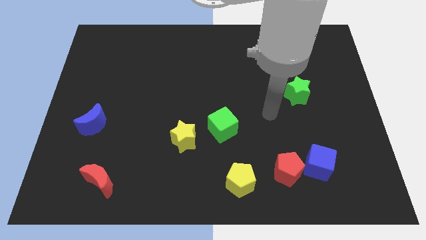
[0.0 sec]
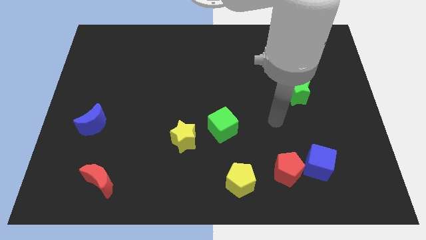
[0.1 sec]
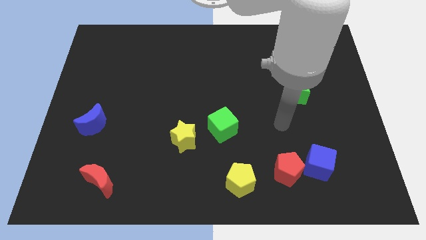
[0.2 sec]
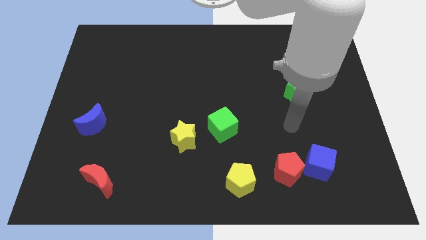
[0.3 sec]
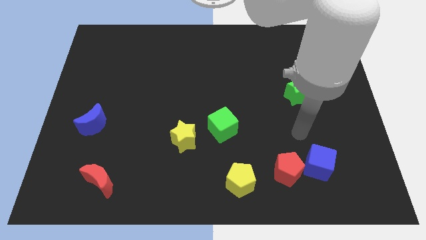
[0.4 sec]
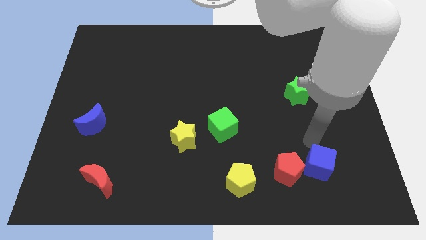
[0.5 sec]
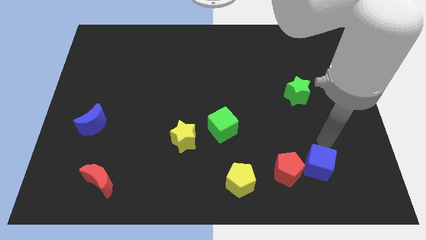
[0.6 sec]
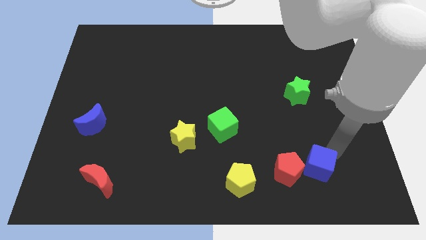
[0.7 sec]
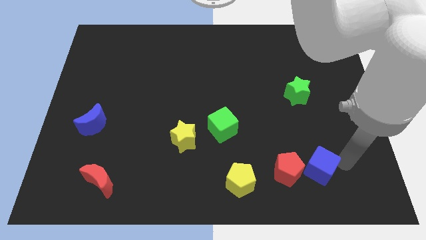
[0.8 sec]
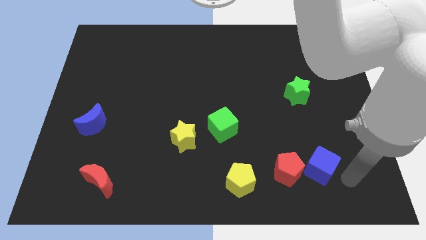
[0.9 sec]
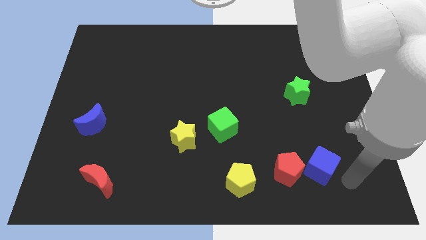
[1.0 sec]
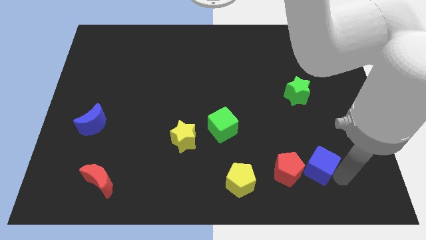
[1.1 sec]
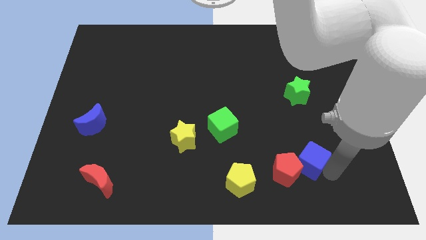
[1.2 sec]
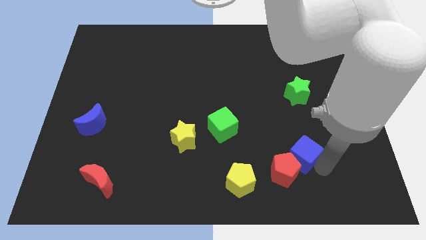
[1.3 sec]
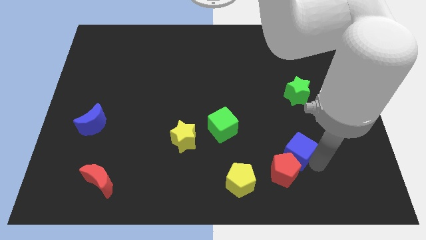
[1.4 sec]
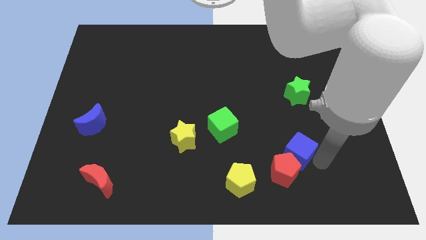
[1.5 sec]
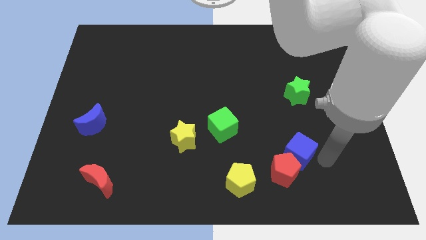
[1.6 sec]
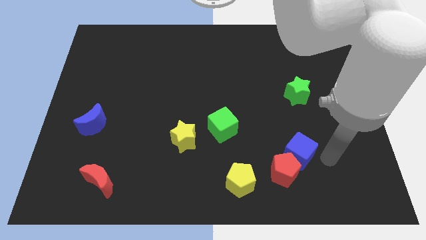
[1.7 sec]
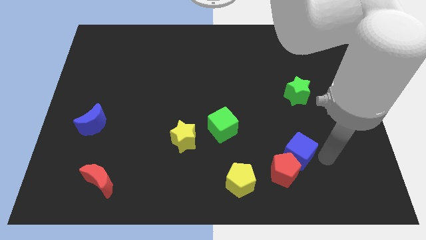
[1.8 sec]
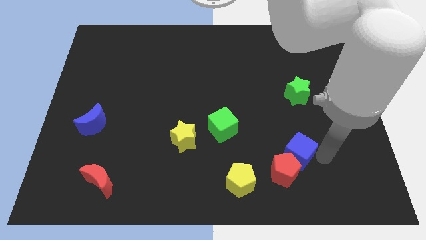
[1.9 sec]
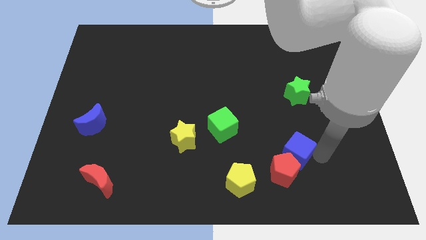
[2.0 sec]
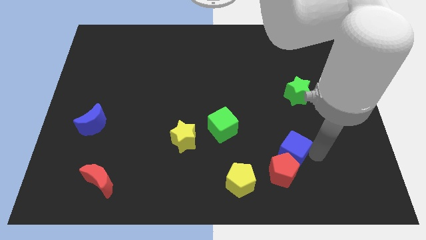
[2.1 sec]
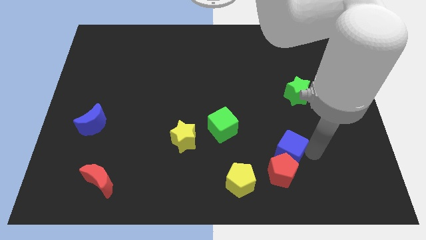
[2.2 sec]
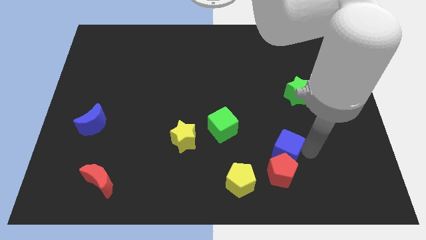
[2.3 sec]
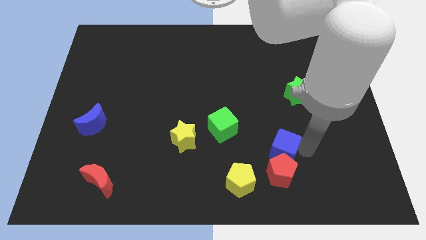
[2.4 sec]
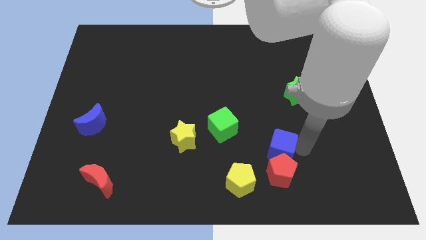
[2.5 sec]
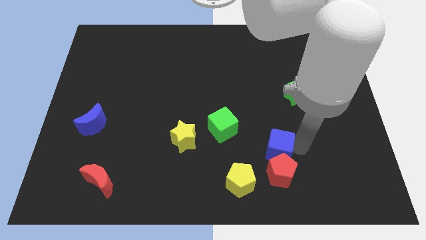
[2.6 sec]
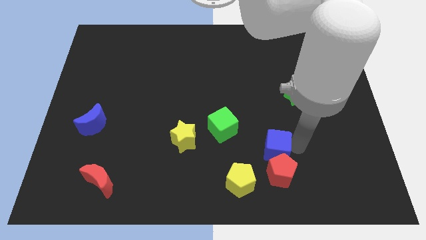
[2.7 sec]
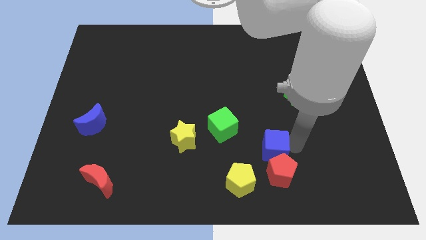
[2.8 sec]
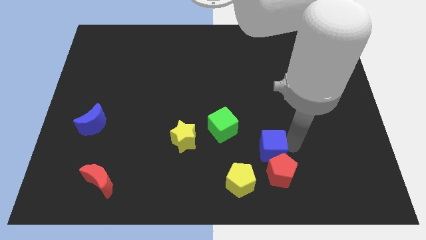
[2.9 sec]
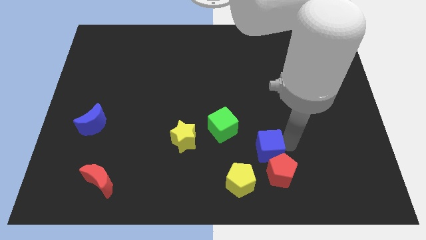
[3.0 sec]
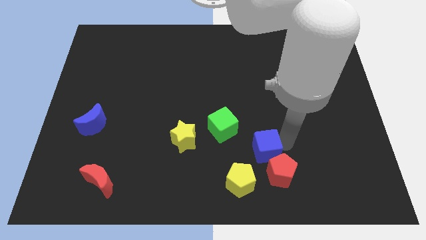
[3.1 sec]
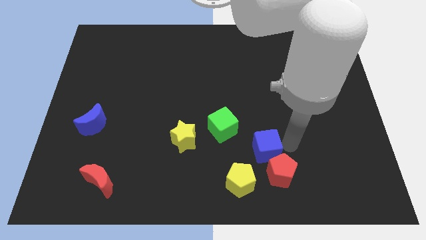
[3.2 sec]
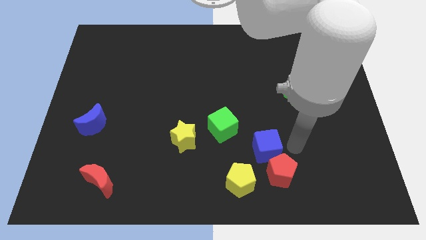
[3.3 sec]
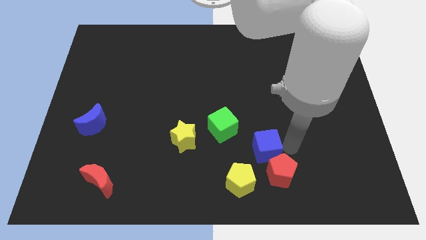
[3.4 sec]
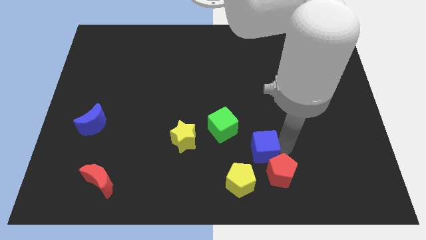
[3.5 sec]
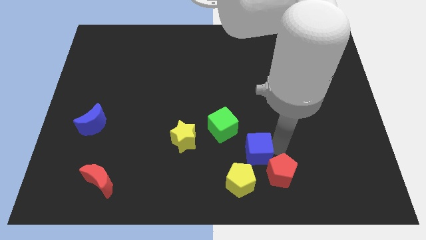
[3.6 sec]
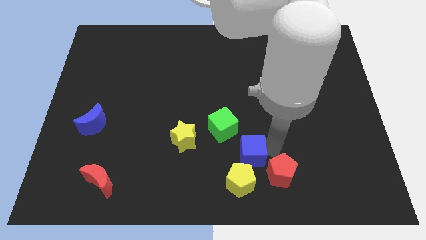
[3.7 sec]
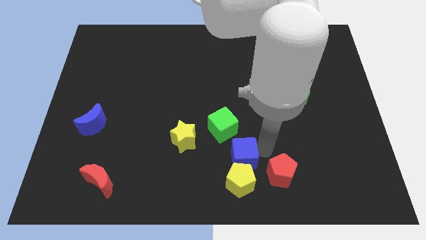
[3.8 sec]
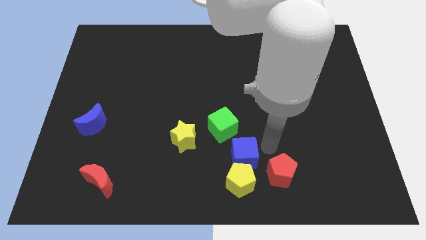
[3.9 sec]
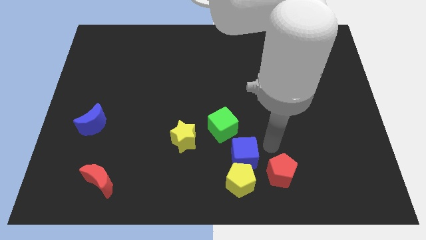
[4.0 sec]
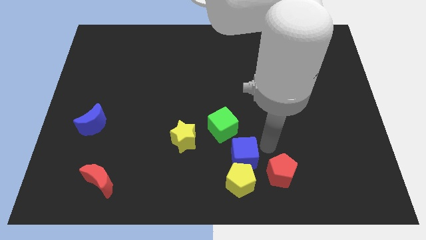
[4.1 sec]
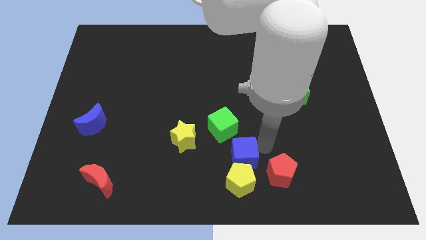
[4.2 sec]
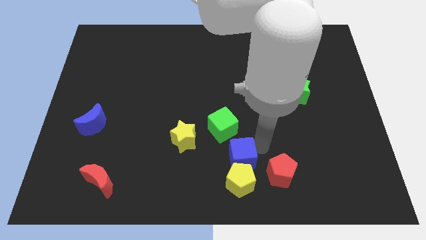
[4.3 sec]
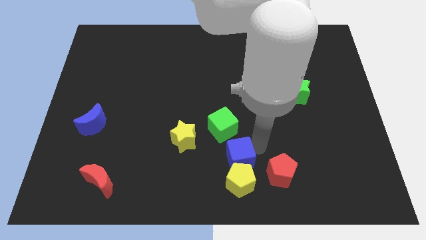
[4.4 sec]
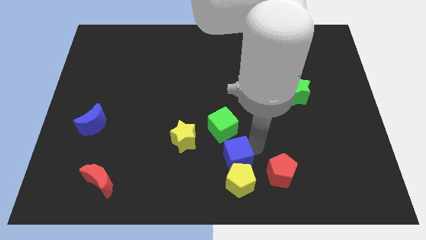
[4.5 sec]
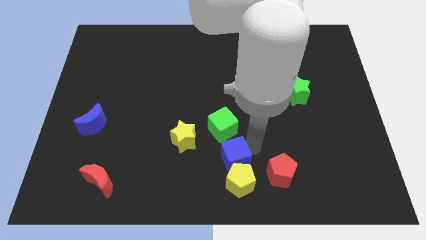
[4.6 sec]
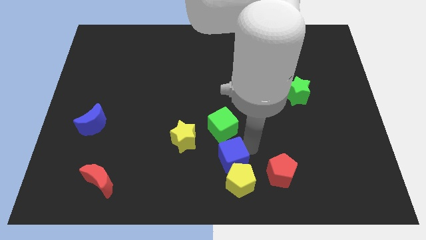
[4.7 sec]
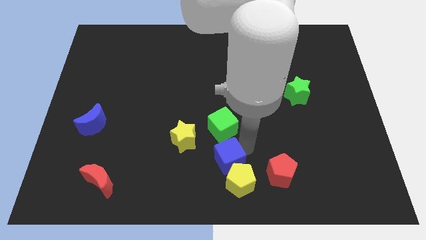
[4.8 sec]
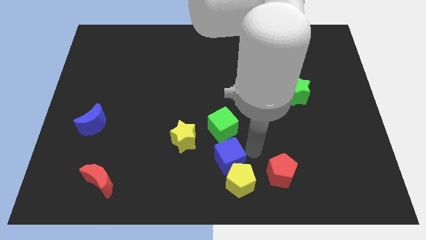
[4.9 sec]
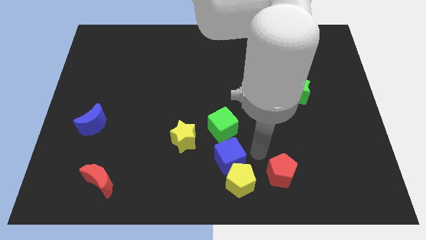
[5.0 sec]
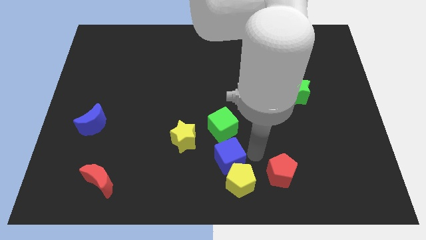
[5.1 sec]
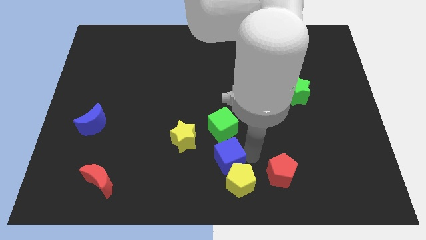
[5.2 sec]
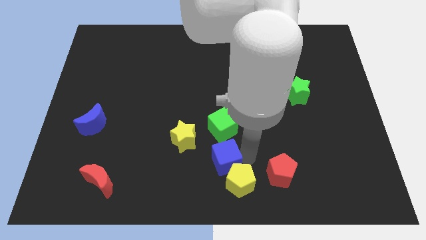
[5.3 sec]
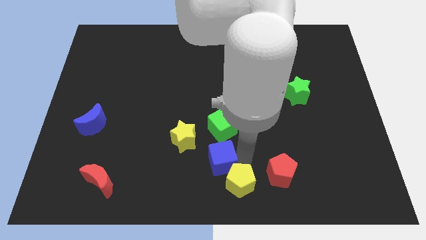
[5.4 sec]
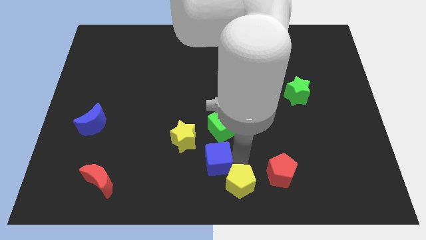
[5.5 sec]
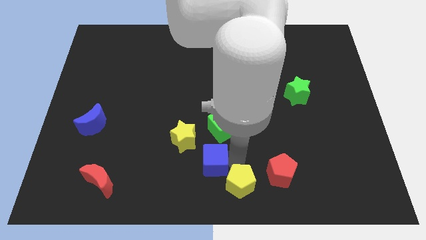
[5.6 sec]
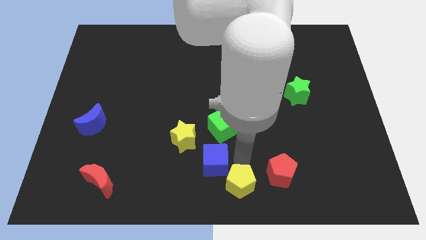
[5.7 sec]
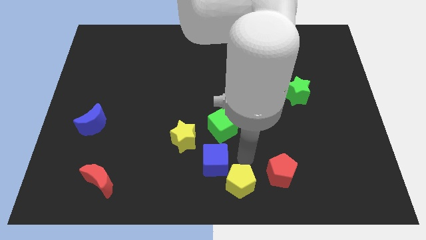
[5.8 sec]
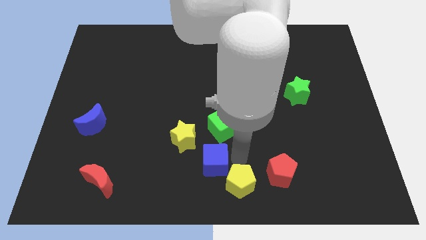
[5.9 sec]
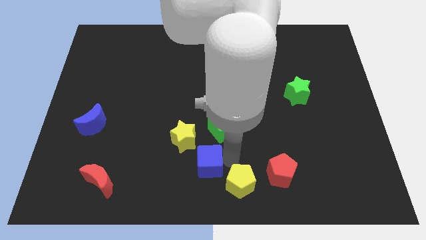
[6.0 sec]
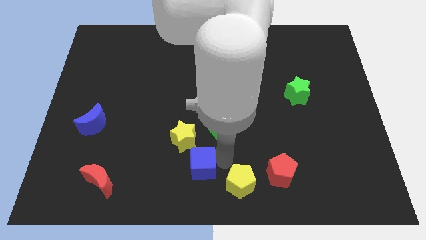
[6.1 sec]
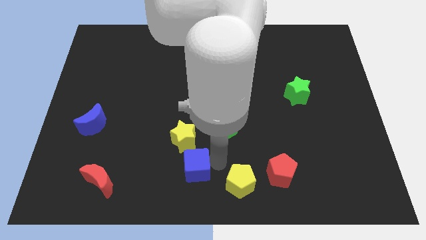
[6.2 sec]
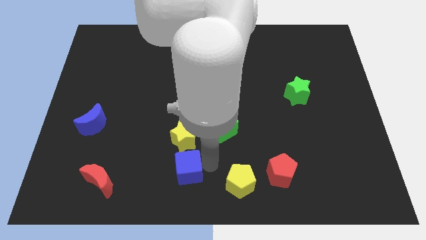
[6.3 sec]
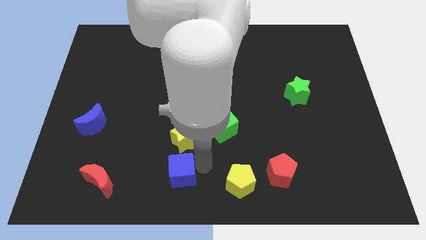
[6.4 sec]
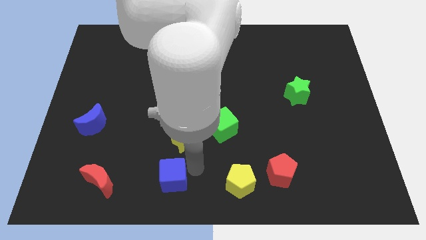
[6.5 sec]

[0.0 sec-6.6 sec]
put the blue cube right of the red moon

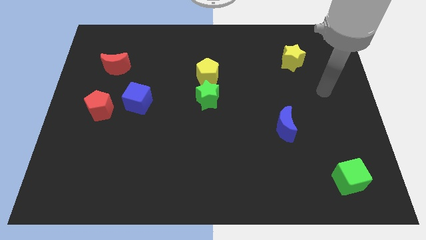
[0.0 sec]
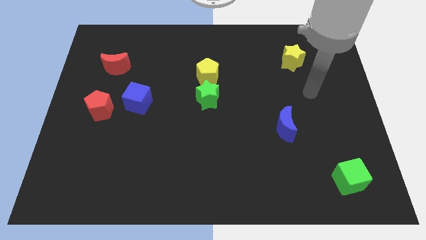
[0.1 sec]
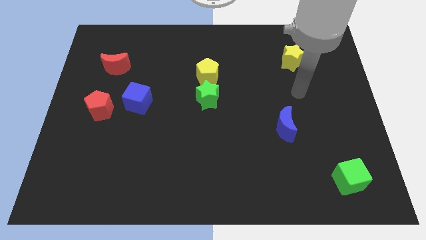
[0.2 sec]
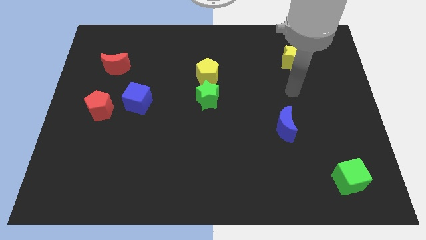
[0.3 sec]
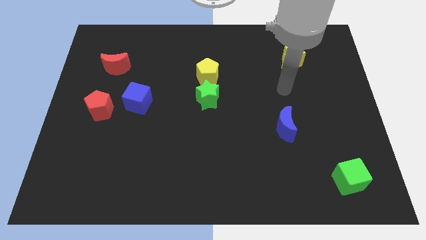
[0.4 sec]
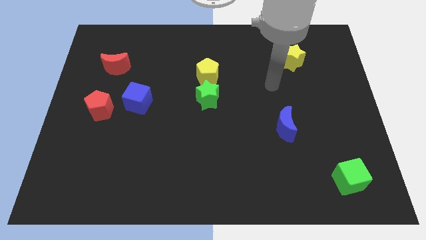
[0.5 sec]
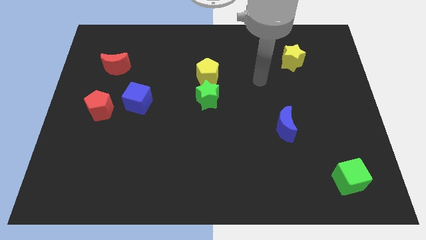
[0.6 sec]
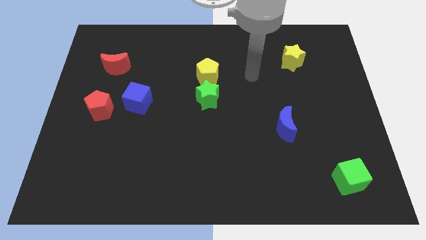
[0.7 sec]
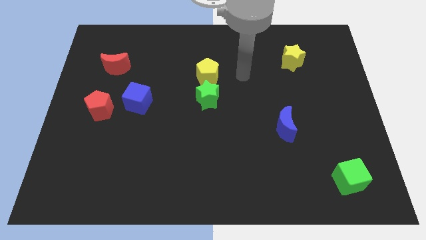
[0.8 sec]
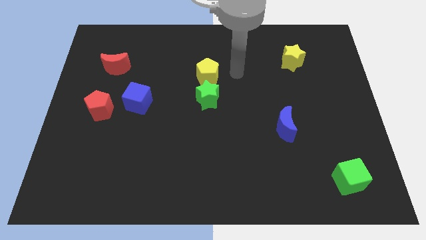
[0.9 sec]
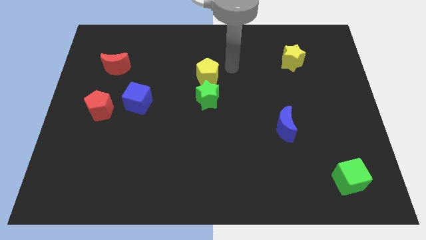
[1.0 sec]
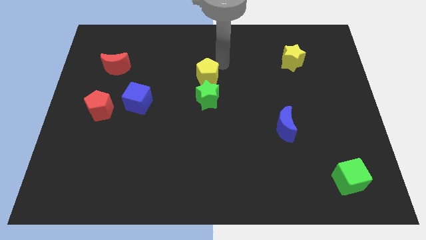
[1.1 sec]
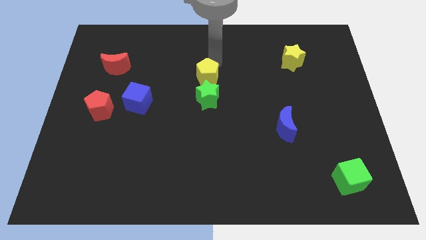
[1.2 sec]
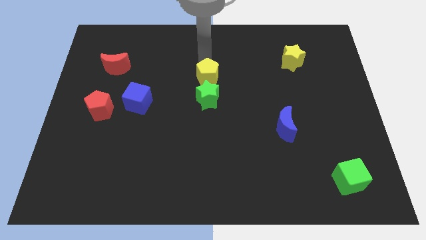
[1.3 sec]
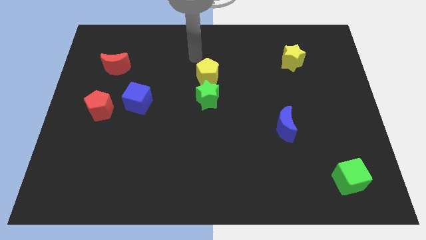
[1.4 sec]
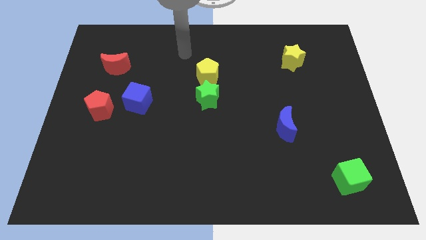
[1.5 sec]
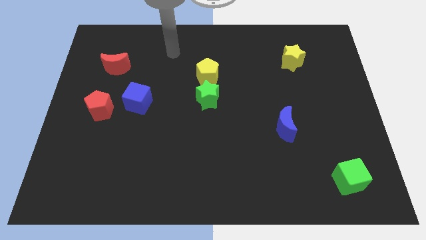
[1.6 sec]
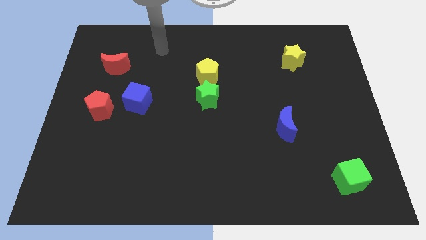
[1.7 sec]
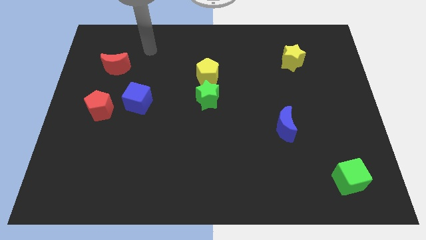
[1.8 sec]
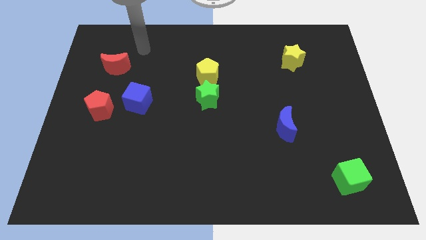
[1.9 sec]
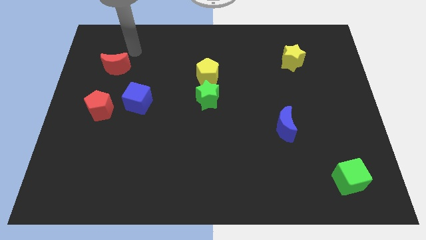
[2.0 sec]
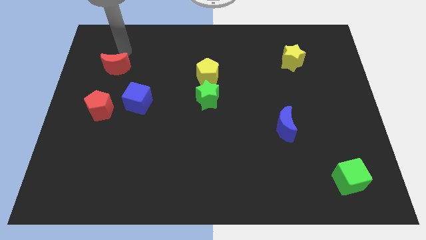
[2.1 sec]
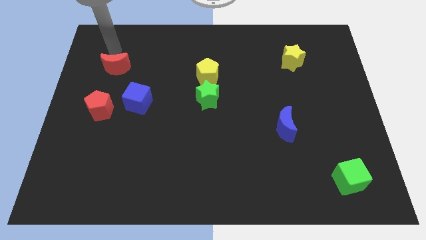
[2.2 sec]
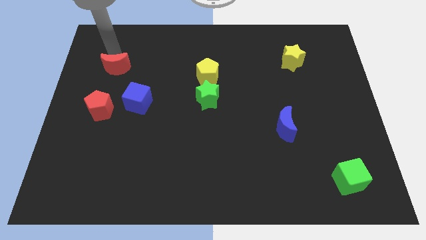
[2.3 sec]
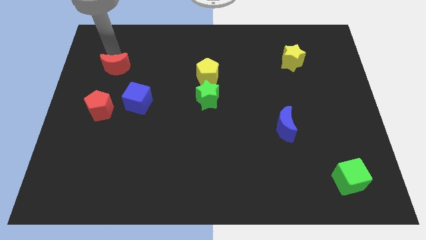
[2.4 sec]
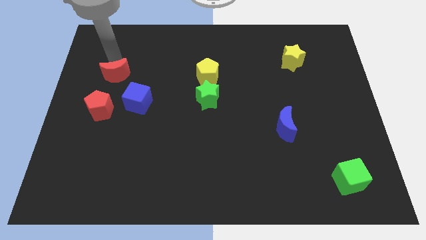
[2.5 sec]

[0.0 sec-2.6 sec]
move the red moon to the top left side of the blue cube
